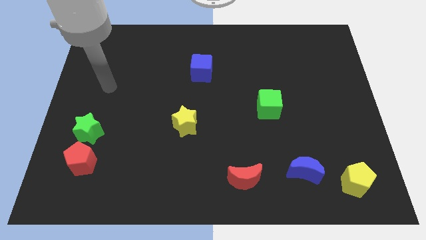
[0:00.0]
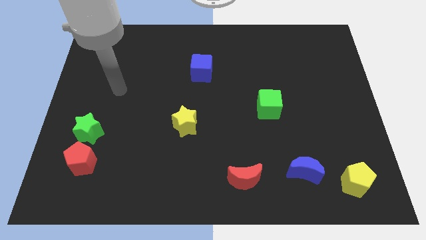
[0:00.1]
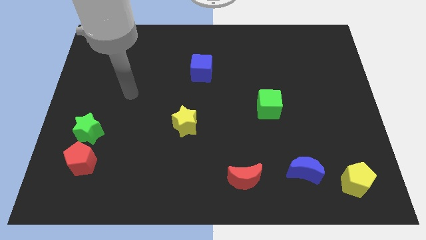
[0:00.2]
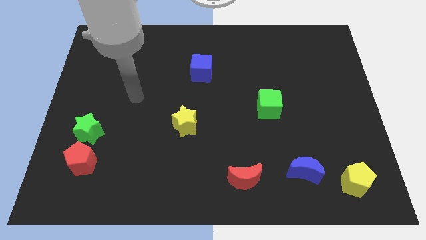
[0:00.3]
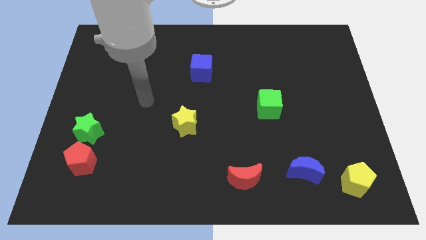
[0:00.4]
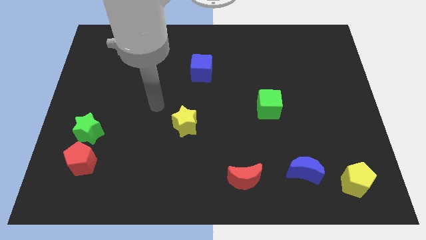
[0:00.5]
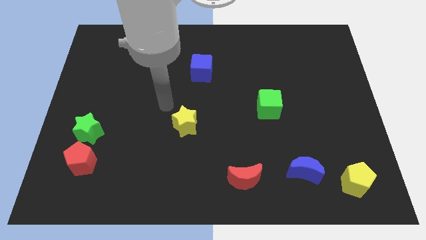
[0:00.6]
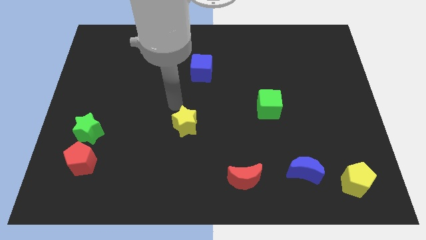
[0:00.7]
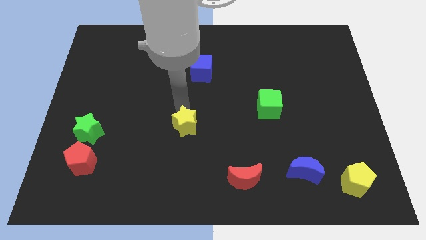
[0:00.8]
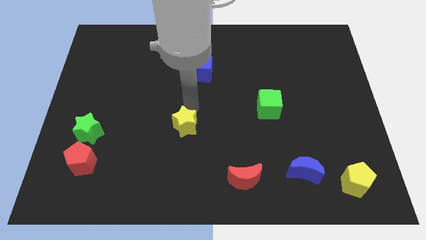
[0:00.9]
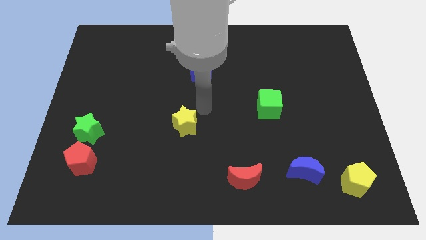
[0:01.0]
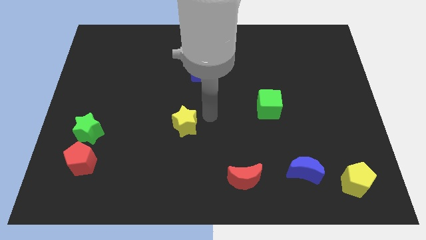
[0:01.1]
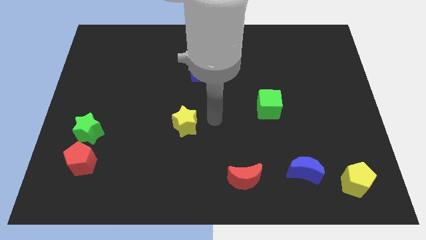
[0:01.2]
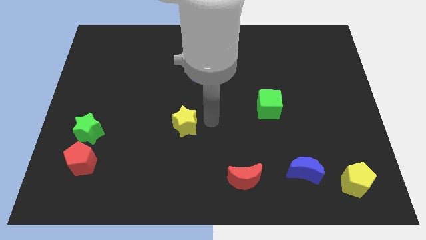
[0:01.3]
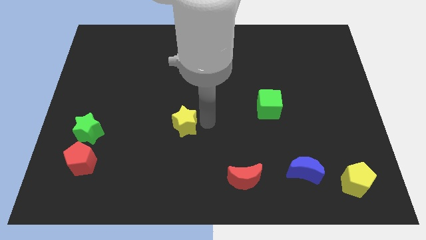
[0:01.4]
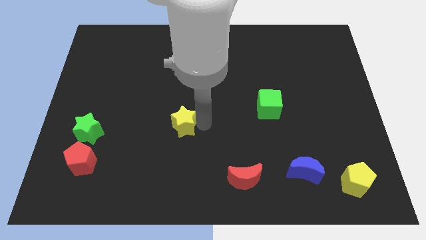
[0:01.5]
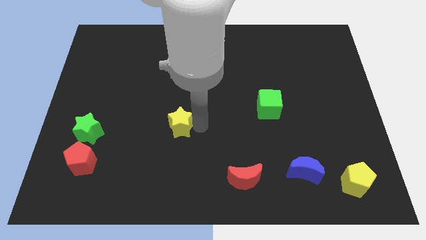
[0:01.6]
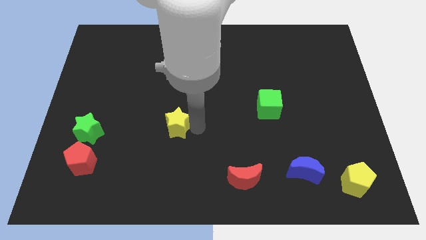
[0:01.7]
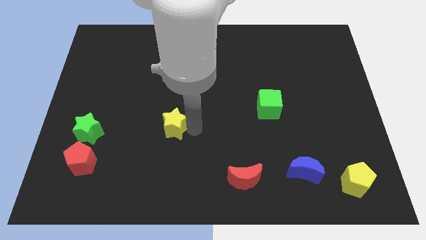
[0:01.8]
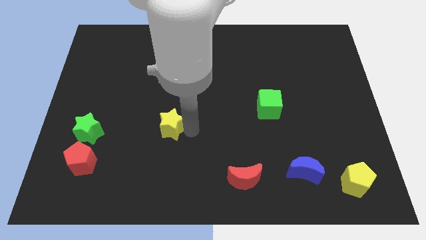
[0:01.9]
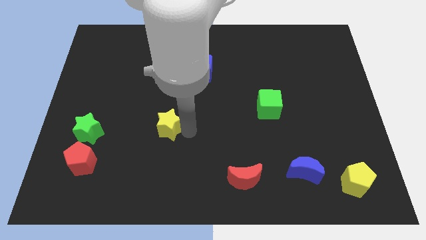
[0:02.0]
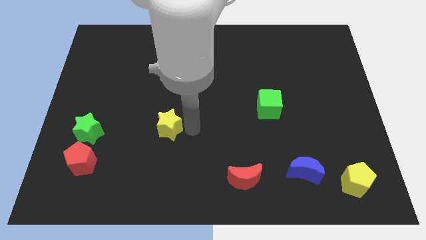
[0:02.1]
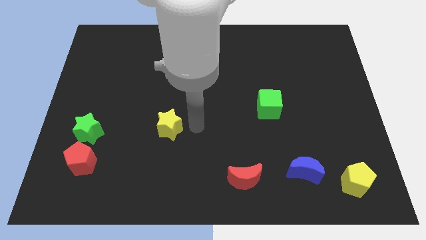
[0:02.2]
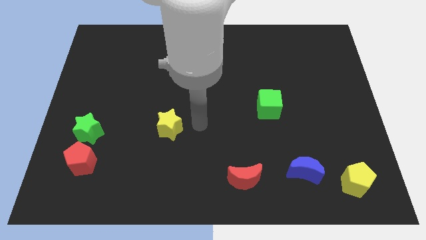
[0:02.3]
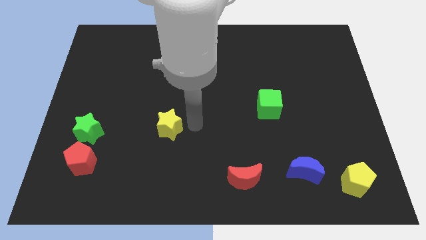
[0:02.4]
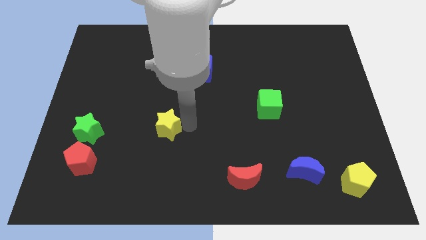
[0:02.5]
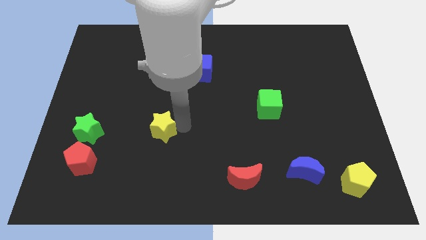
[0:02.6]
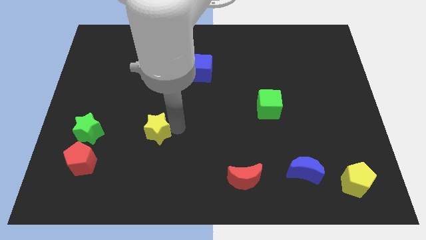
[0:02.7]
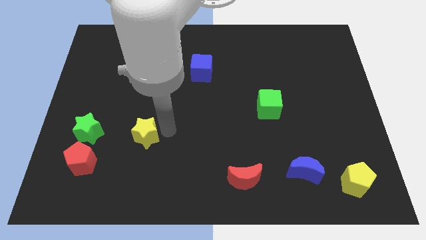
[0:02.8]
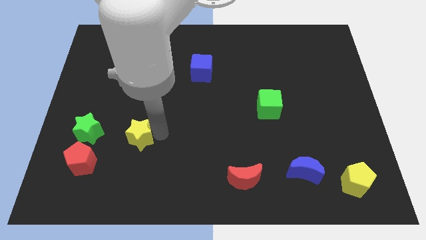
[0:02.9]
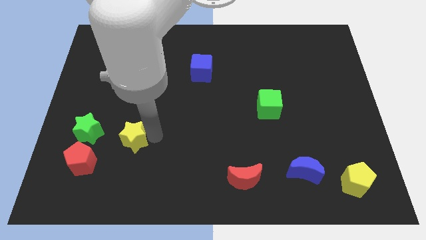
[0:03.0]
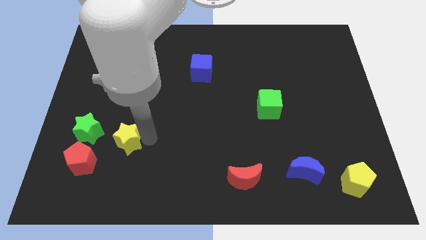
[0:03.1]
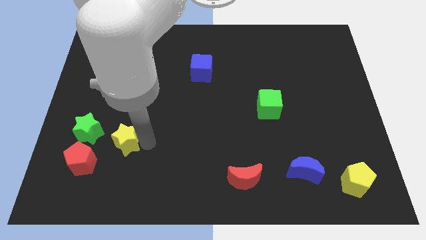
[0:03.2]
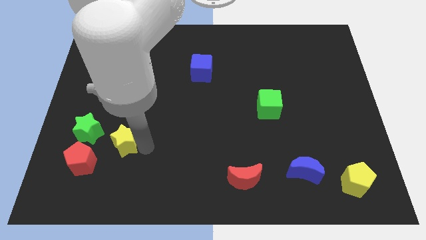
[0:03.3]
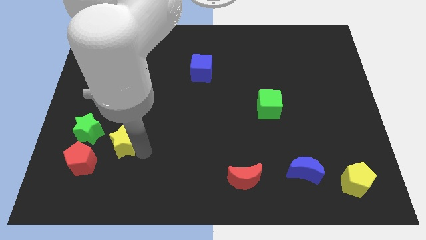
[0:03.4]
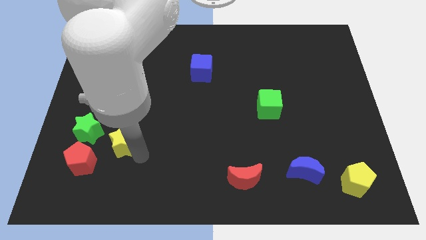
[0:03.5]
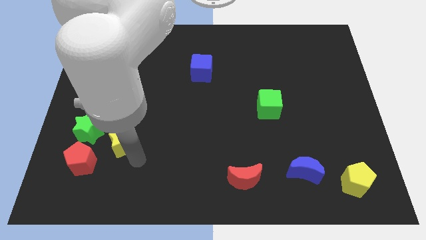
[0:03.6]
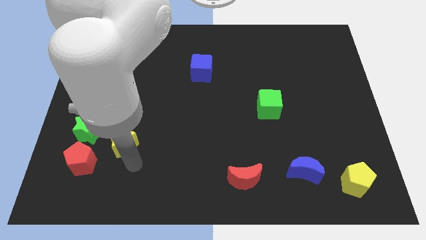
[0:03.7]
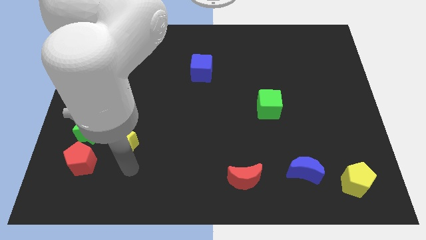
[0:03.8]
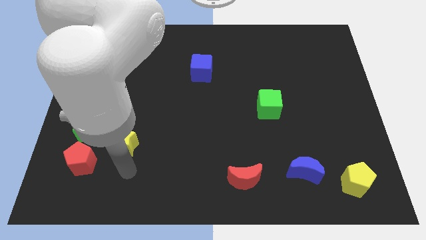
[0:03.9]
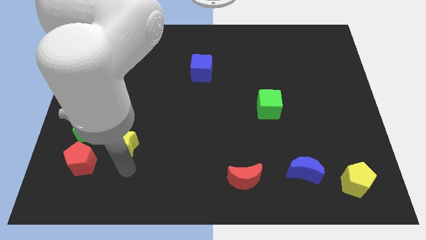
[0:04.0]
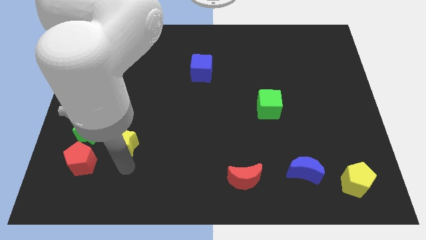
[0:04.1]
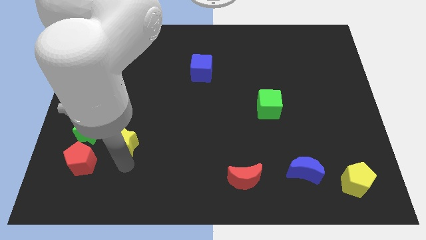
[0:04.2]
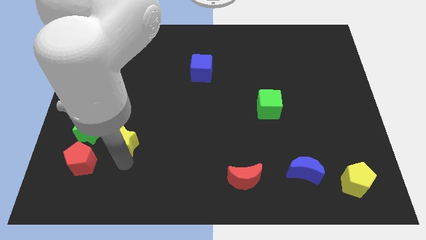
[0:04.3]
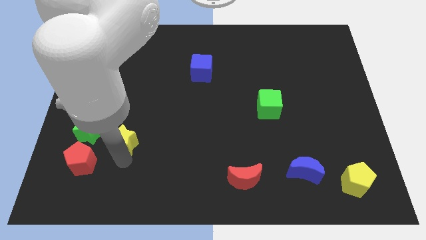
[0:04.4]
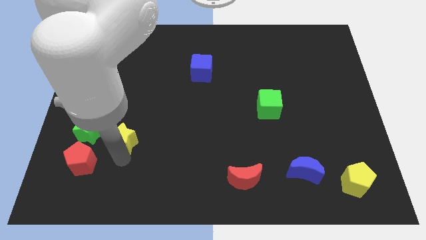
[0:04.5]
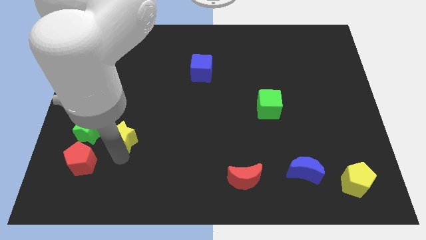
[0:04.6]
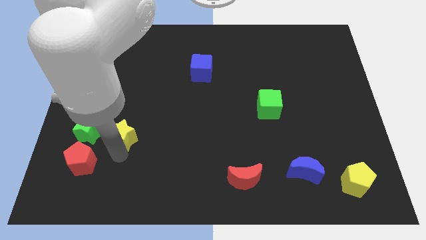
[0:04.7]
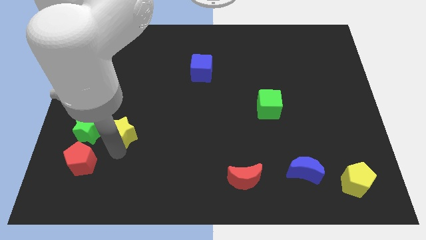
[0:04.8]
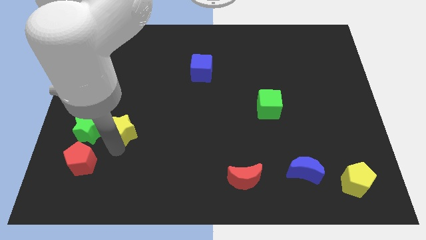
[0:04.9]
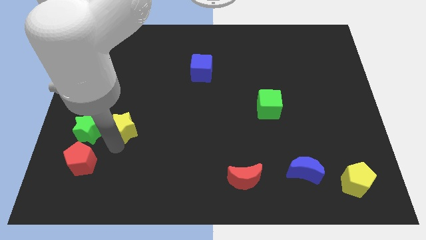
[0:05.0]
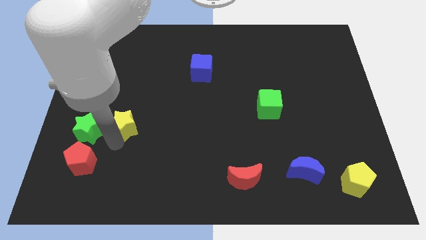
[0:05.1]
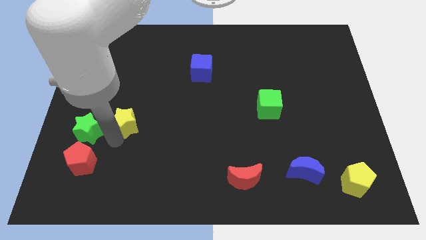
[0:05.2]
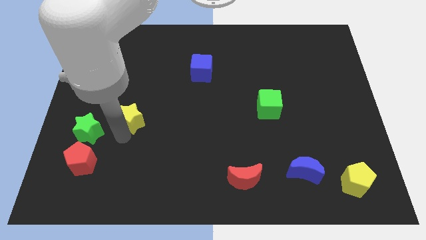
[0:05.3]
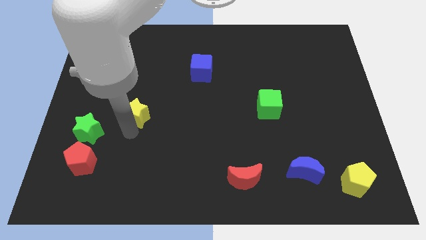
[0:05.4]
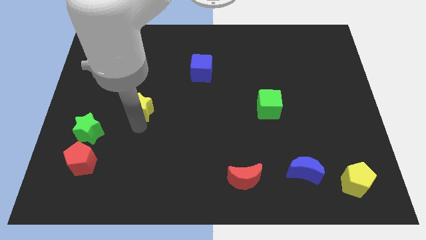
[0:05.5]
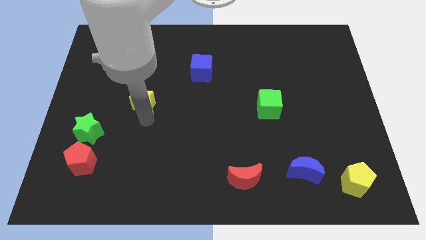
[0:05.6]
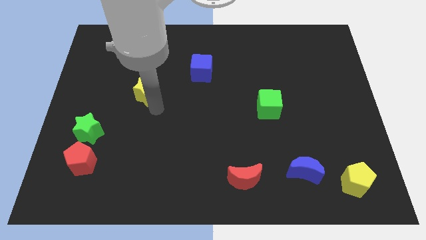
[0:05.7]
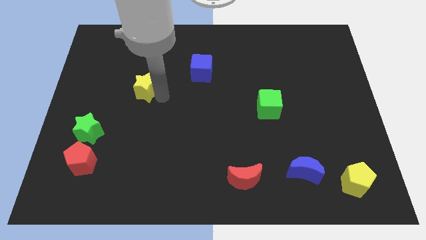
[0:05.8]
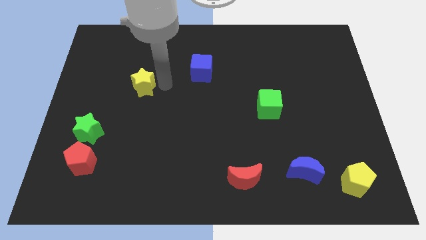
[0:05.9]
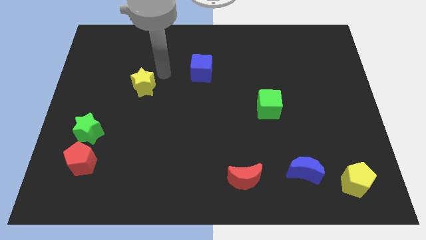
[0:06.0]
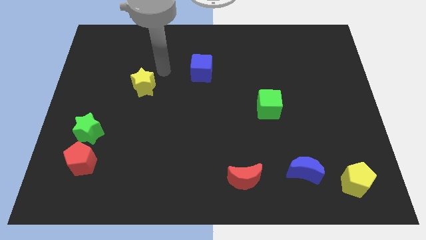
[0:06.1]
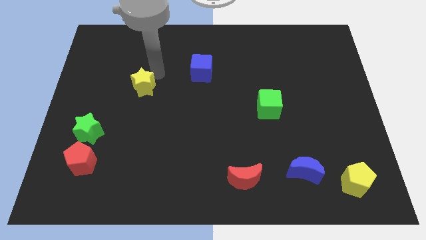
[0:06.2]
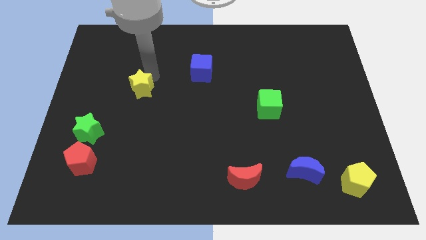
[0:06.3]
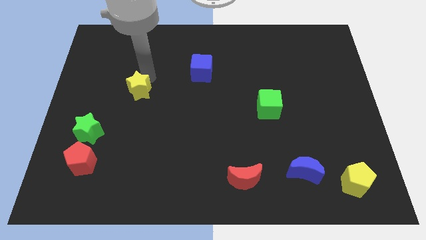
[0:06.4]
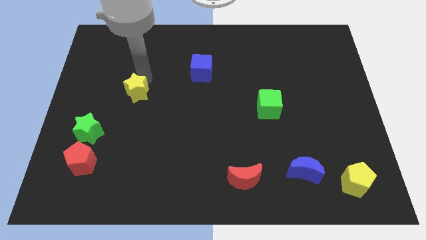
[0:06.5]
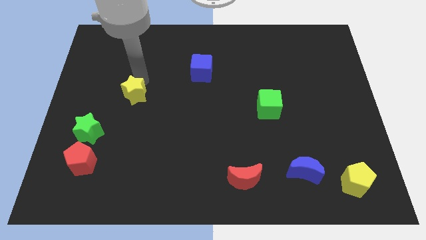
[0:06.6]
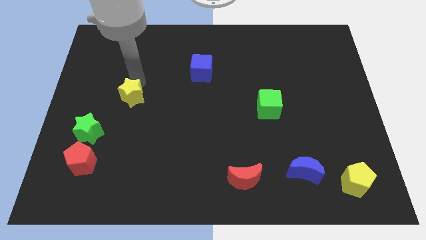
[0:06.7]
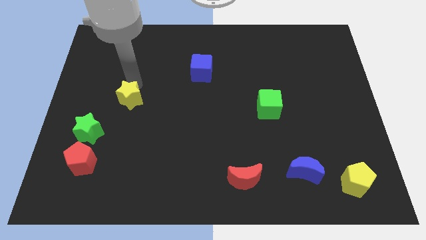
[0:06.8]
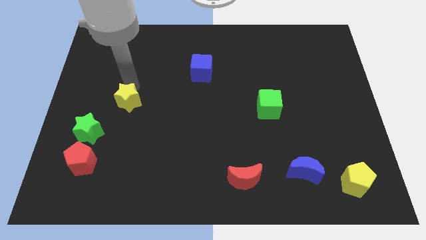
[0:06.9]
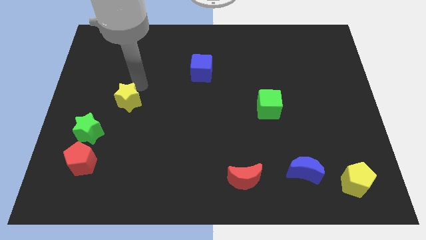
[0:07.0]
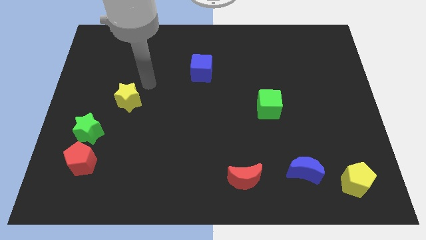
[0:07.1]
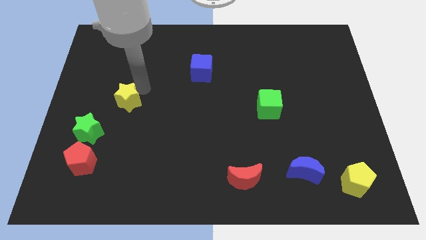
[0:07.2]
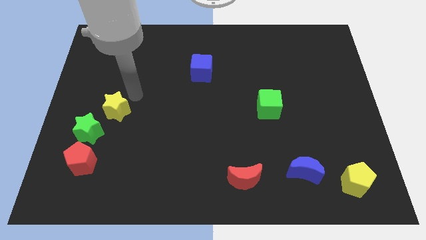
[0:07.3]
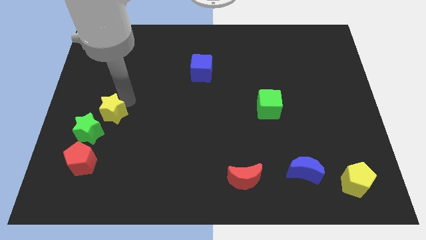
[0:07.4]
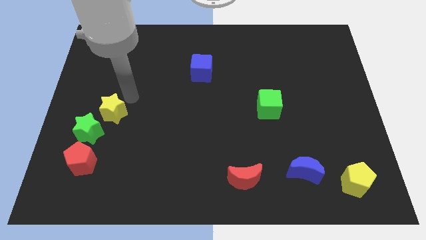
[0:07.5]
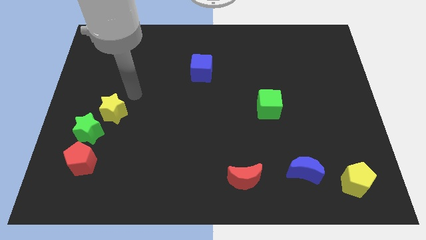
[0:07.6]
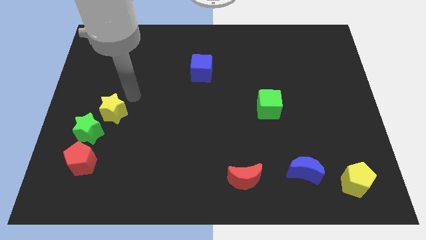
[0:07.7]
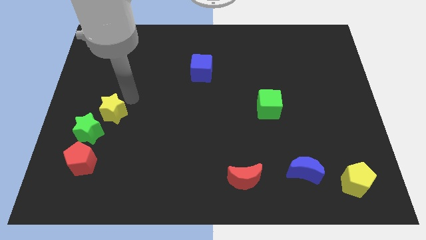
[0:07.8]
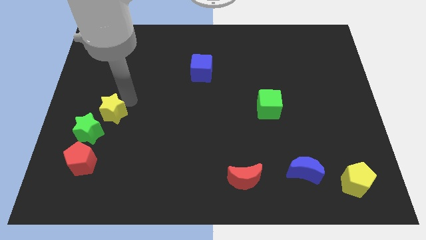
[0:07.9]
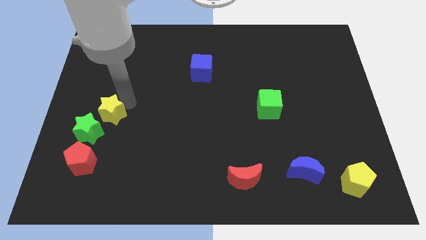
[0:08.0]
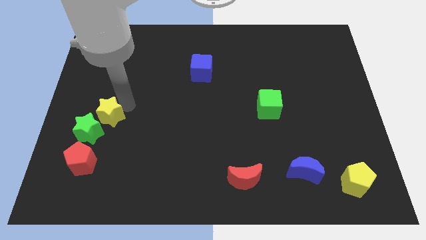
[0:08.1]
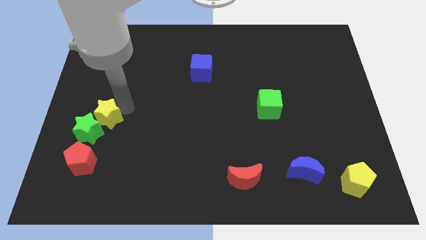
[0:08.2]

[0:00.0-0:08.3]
put the yellow star towards the green star
